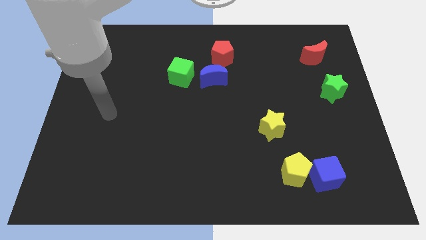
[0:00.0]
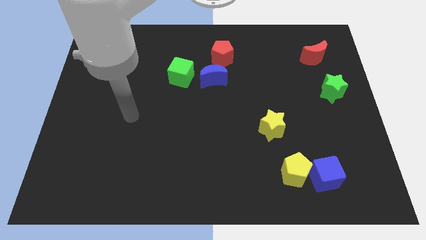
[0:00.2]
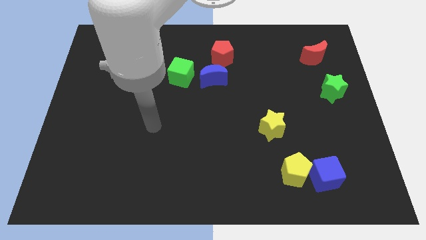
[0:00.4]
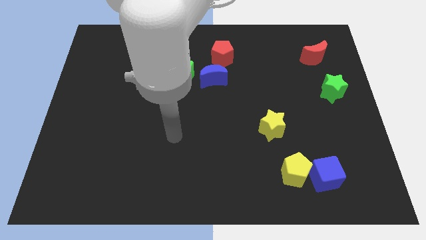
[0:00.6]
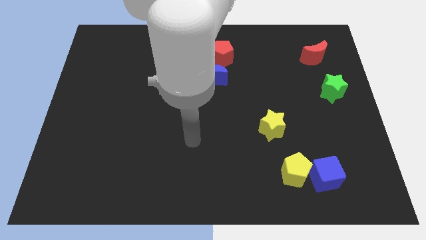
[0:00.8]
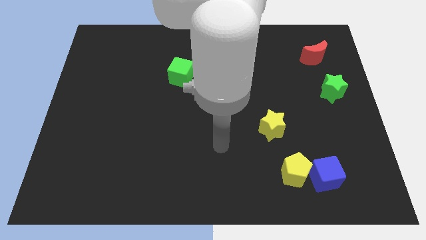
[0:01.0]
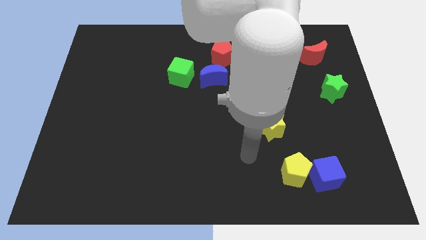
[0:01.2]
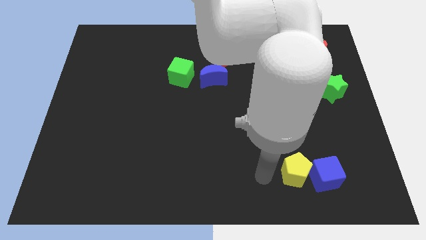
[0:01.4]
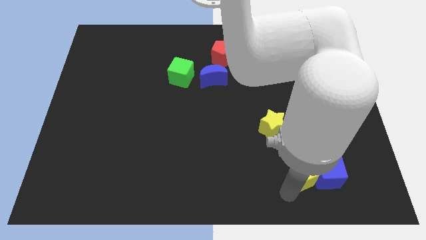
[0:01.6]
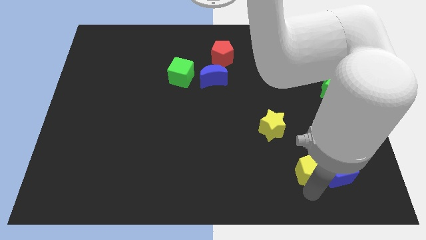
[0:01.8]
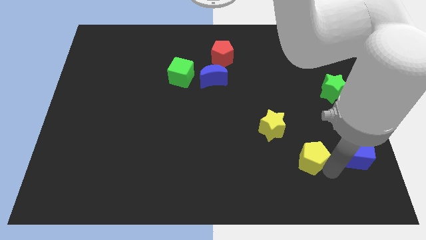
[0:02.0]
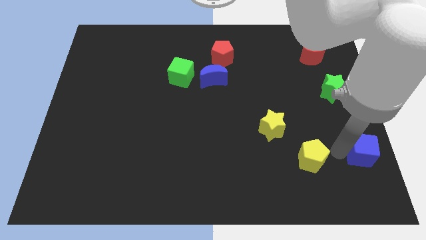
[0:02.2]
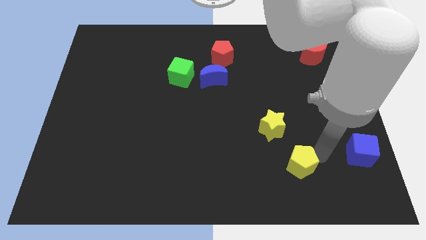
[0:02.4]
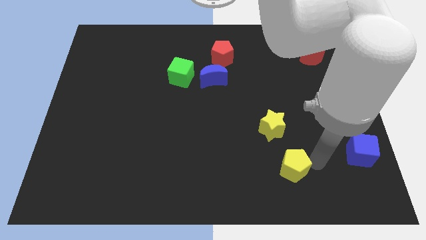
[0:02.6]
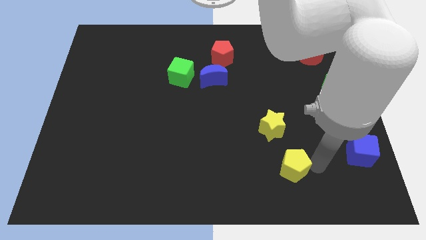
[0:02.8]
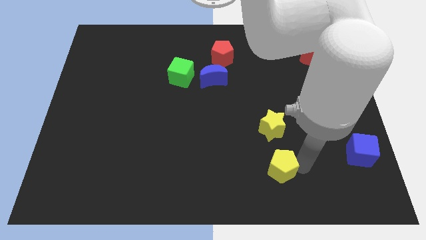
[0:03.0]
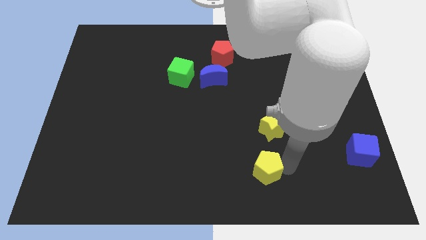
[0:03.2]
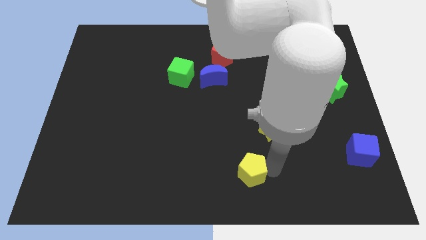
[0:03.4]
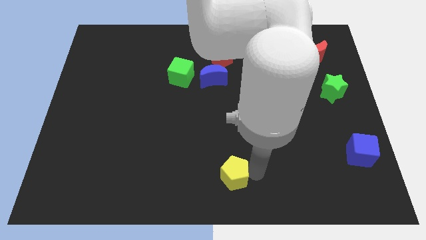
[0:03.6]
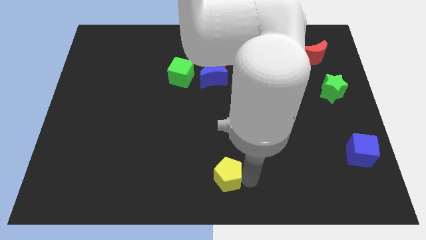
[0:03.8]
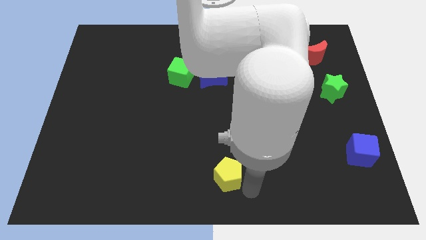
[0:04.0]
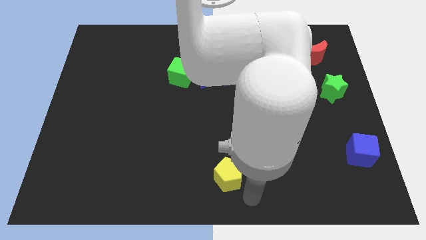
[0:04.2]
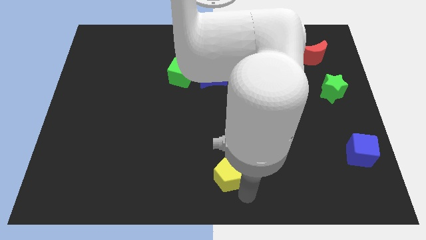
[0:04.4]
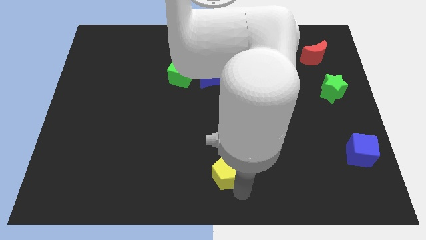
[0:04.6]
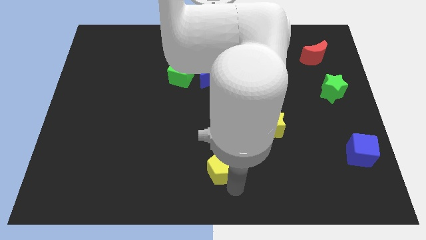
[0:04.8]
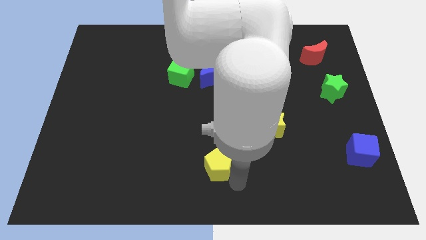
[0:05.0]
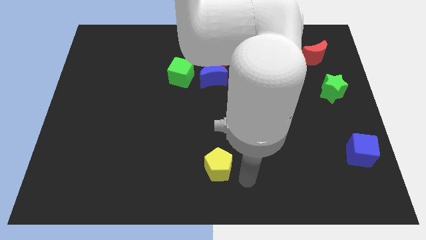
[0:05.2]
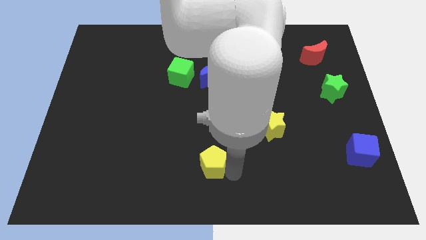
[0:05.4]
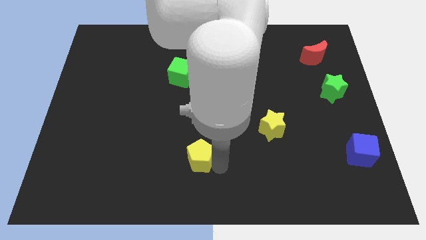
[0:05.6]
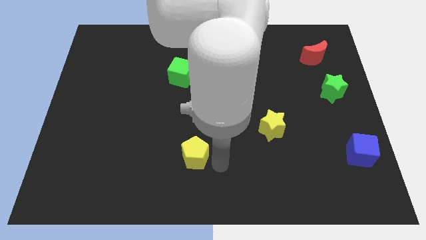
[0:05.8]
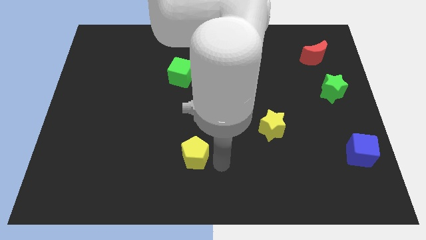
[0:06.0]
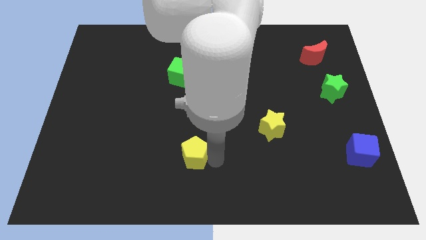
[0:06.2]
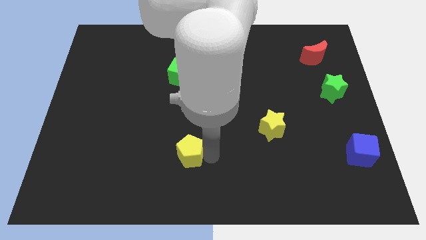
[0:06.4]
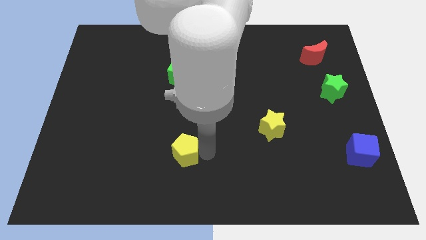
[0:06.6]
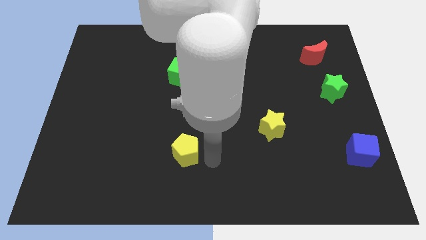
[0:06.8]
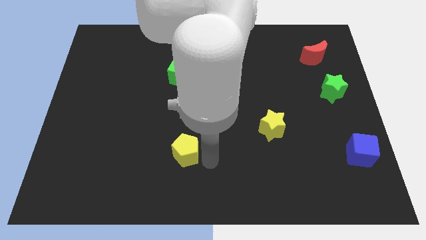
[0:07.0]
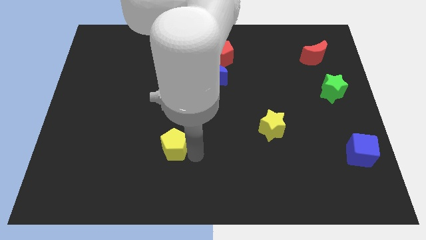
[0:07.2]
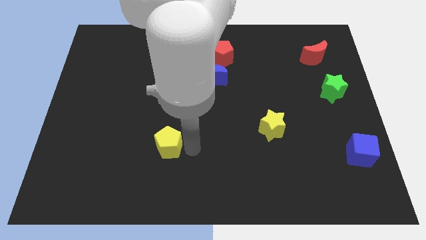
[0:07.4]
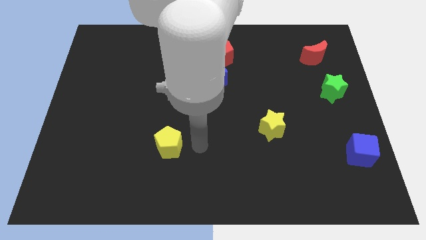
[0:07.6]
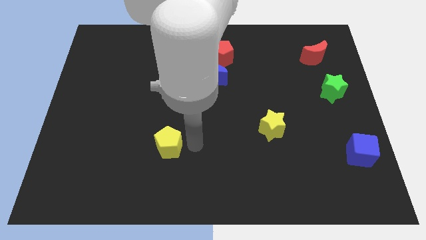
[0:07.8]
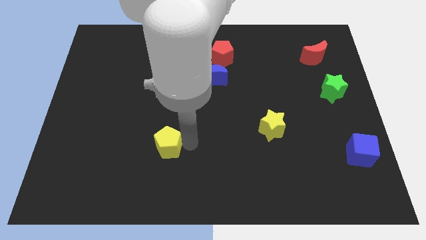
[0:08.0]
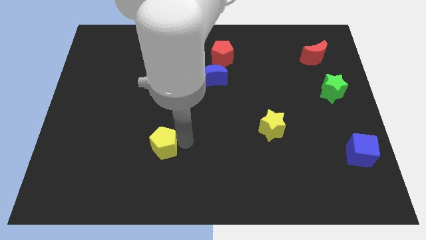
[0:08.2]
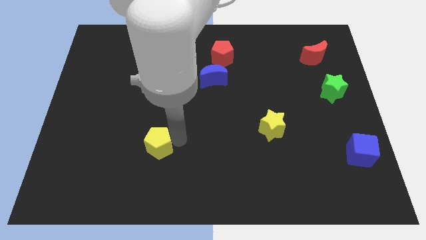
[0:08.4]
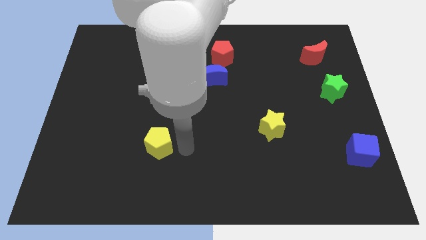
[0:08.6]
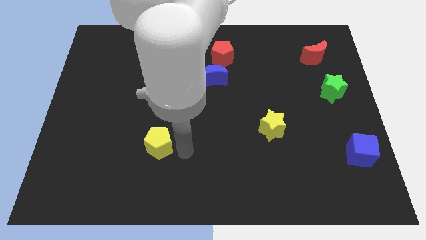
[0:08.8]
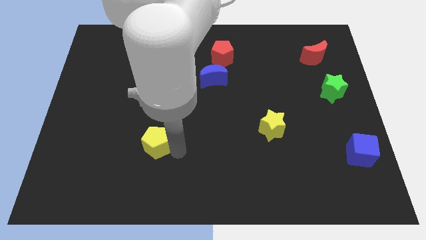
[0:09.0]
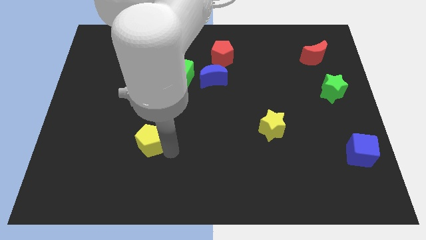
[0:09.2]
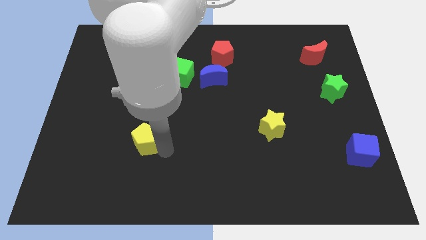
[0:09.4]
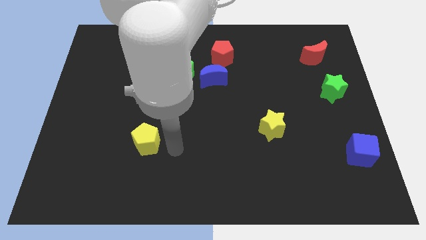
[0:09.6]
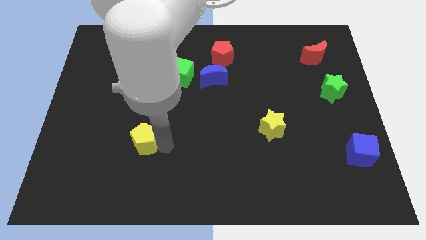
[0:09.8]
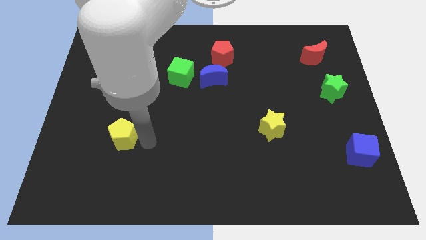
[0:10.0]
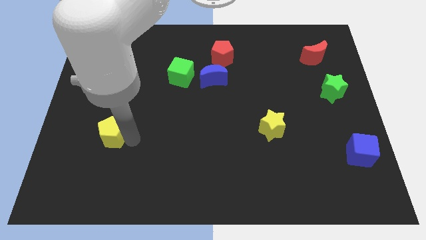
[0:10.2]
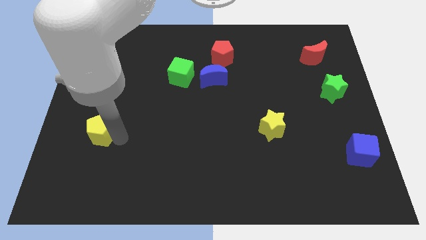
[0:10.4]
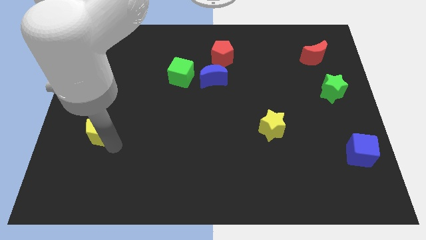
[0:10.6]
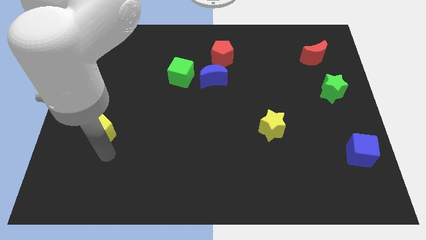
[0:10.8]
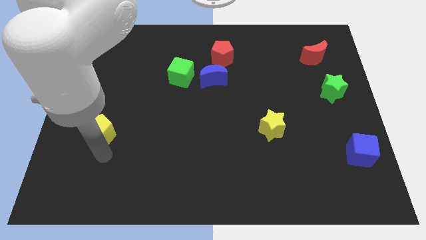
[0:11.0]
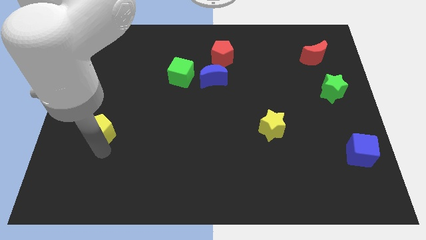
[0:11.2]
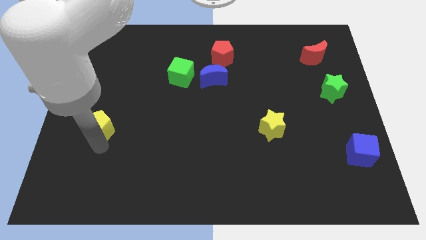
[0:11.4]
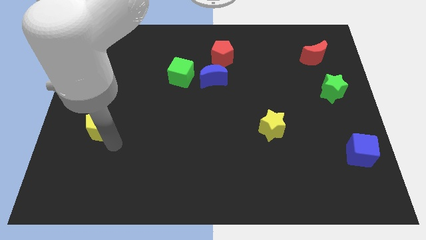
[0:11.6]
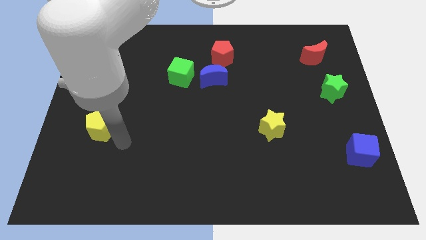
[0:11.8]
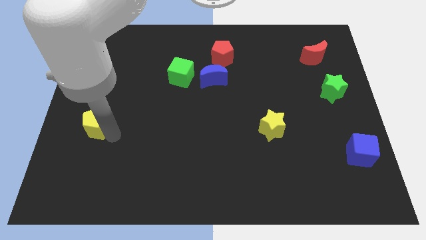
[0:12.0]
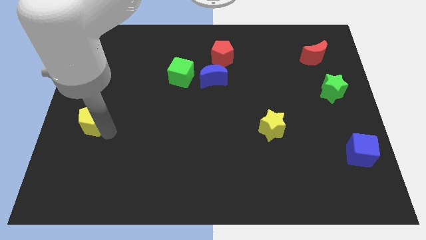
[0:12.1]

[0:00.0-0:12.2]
put the yellow pentagon to the left side of the board

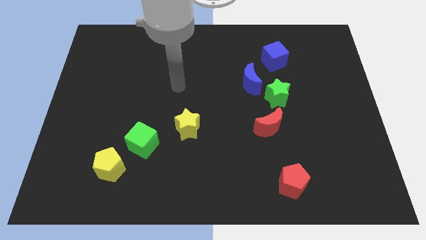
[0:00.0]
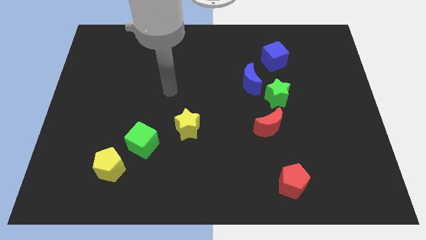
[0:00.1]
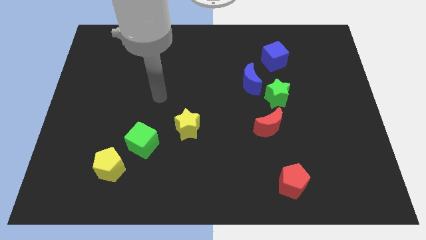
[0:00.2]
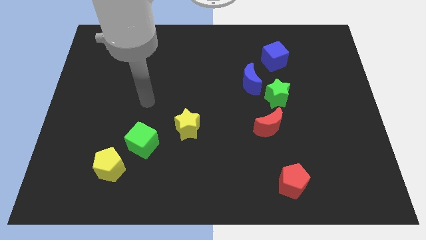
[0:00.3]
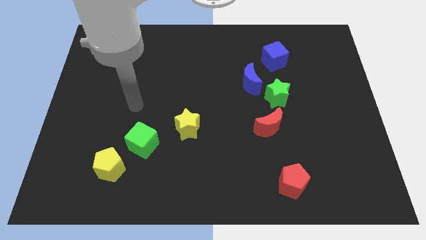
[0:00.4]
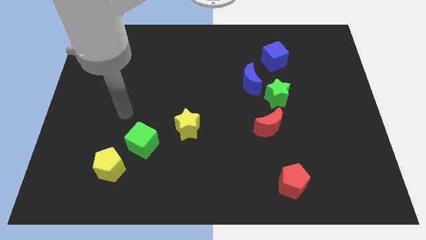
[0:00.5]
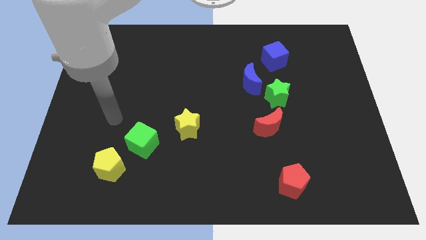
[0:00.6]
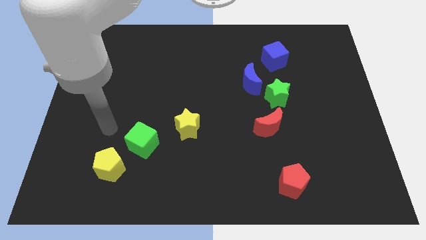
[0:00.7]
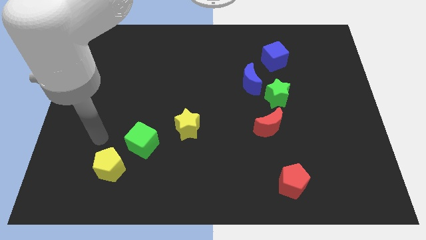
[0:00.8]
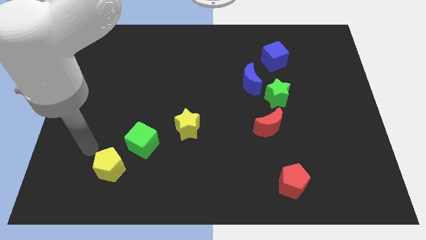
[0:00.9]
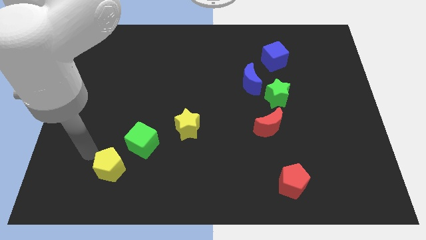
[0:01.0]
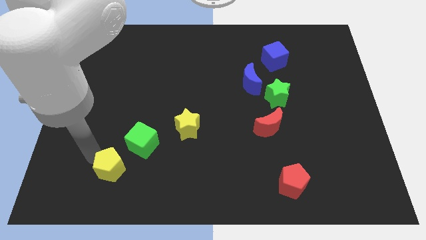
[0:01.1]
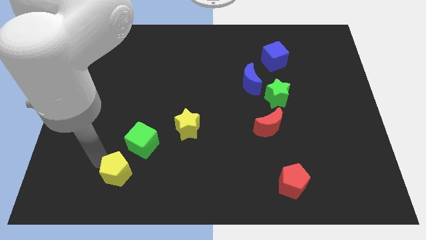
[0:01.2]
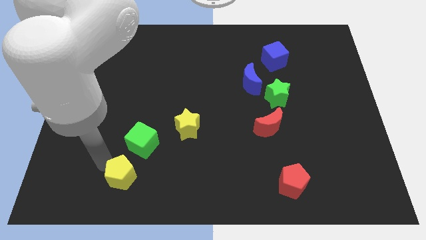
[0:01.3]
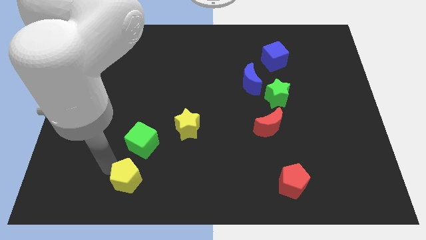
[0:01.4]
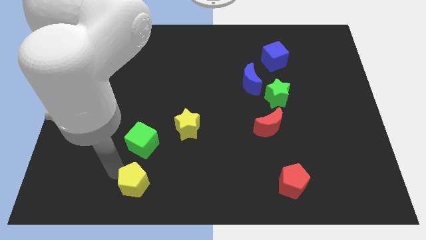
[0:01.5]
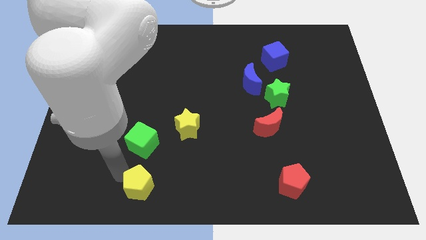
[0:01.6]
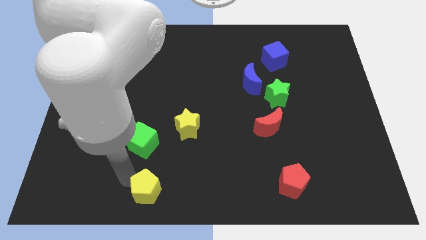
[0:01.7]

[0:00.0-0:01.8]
move the yellow pentagon to the bottom
